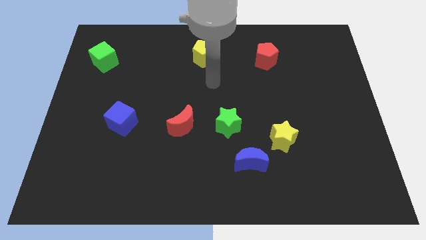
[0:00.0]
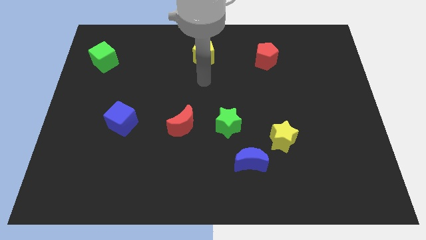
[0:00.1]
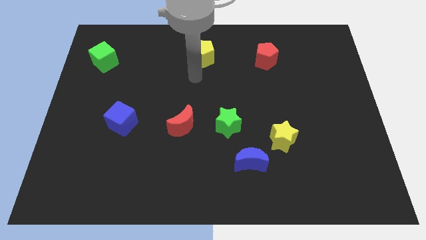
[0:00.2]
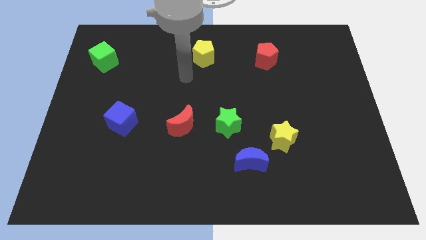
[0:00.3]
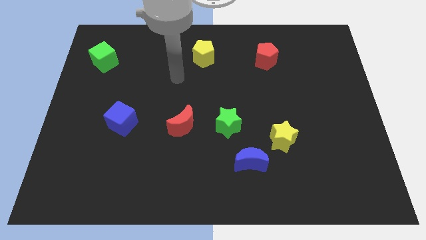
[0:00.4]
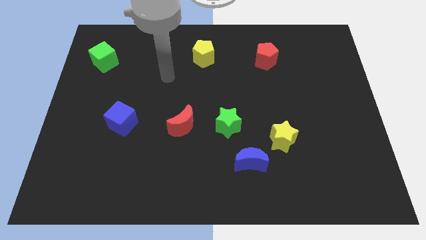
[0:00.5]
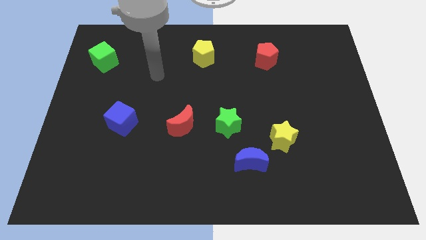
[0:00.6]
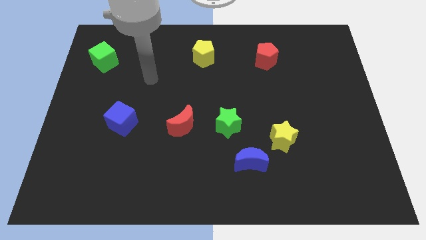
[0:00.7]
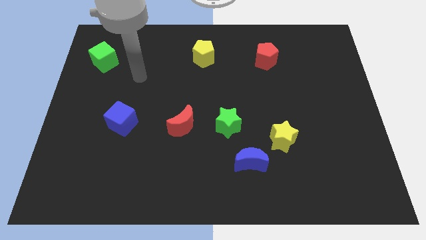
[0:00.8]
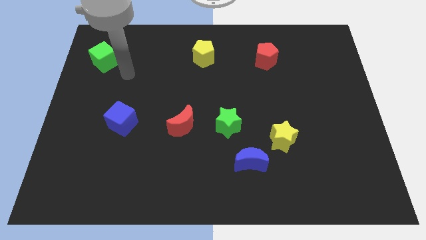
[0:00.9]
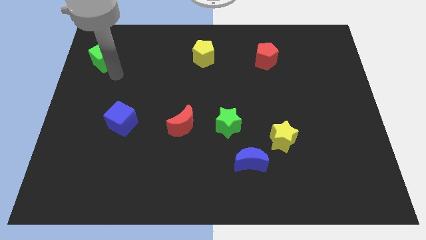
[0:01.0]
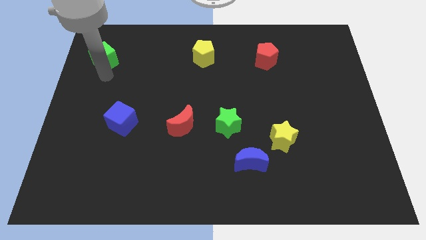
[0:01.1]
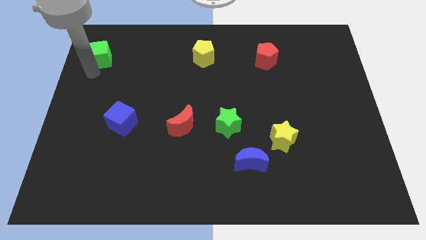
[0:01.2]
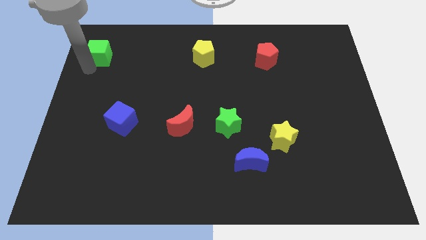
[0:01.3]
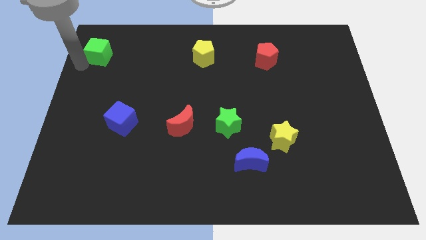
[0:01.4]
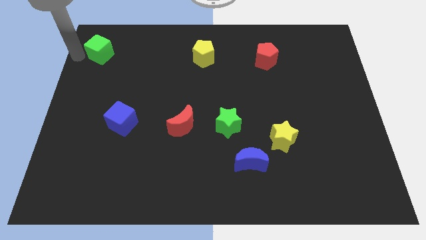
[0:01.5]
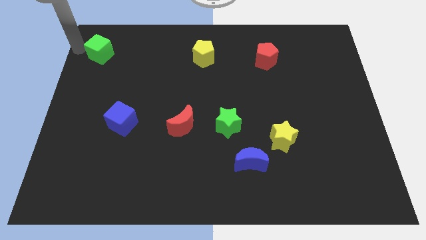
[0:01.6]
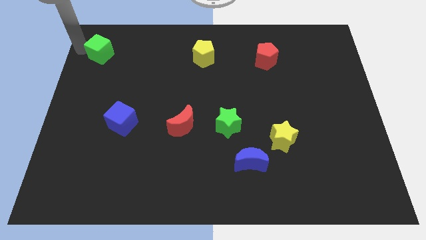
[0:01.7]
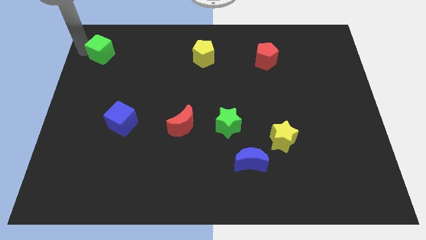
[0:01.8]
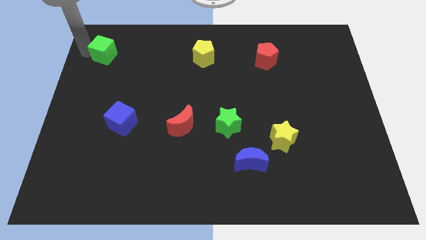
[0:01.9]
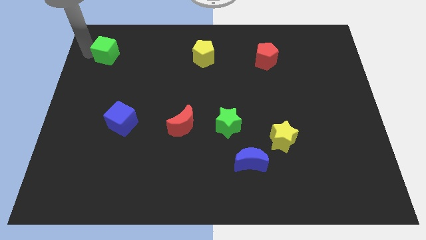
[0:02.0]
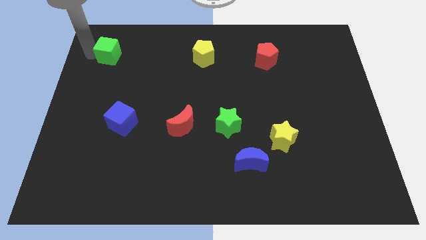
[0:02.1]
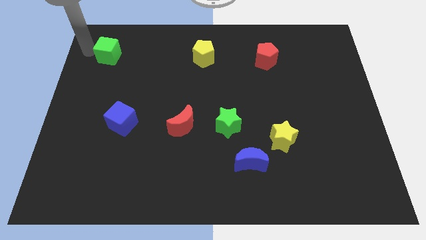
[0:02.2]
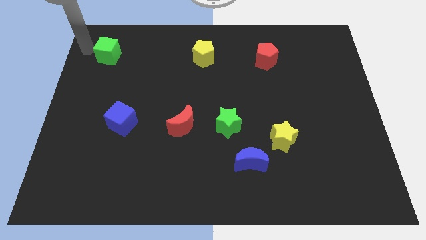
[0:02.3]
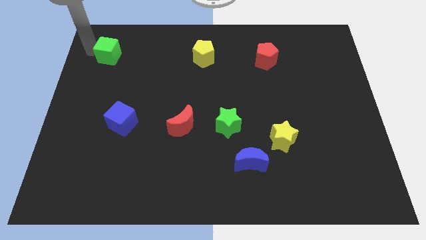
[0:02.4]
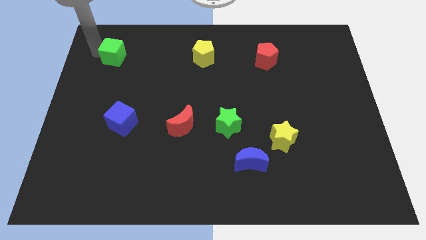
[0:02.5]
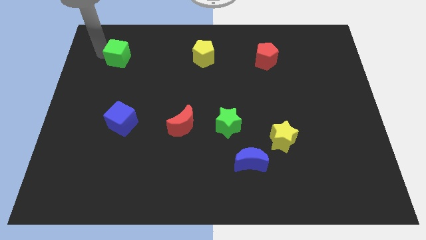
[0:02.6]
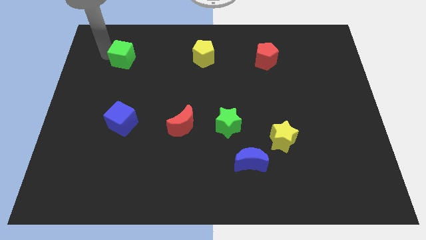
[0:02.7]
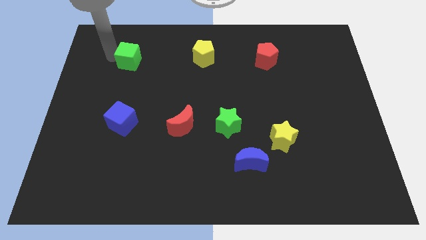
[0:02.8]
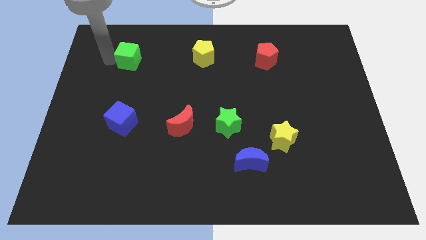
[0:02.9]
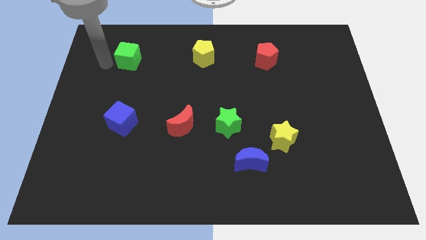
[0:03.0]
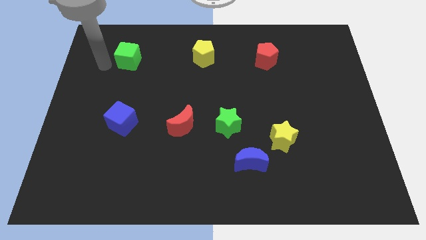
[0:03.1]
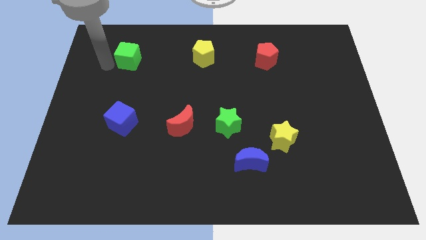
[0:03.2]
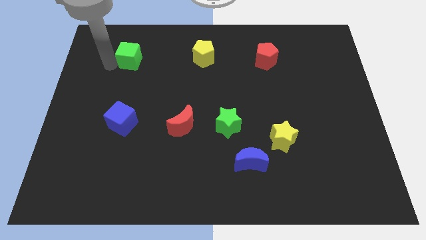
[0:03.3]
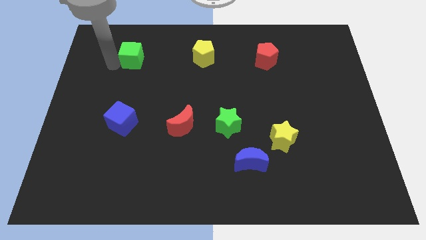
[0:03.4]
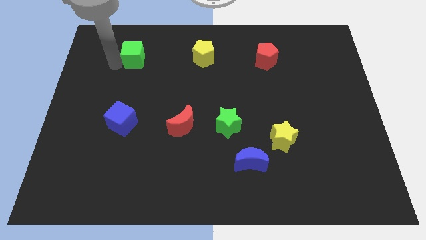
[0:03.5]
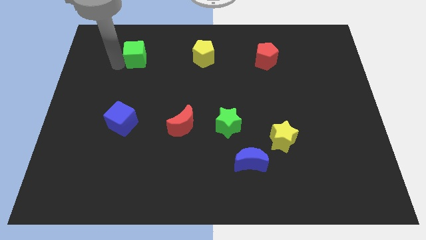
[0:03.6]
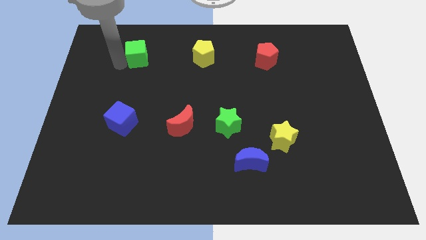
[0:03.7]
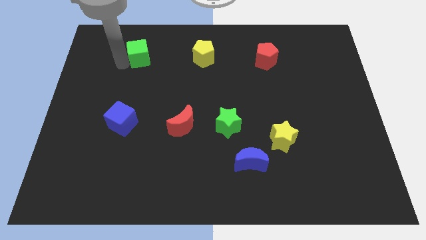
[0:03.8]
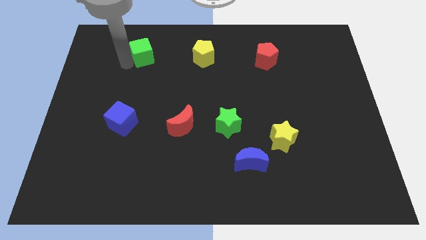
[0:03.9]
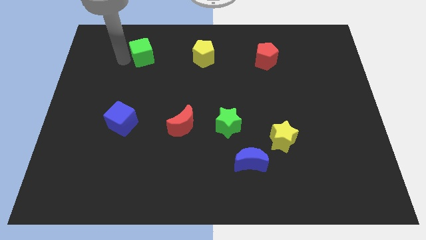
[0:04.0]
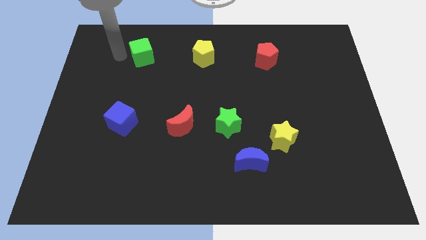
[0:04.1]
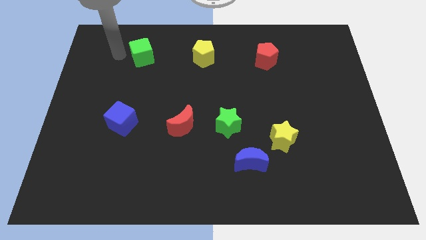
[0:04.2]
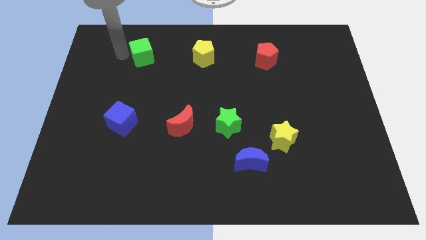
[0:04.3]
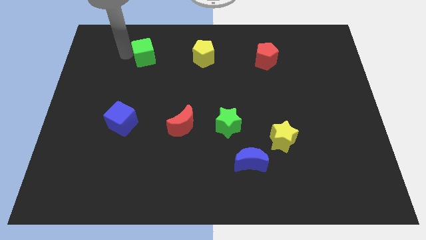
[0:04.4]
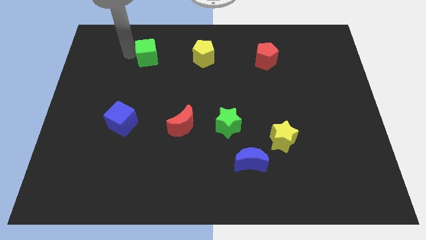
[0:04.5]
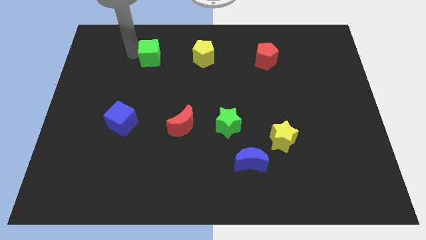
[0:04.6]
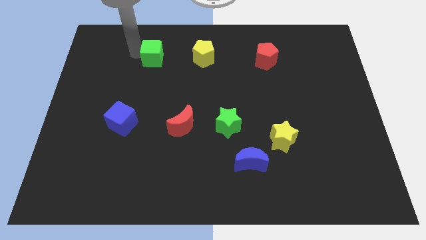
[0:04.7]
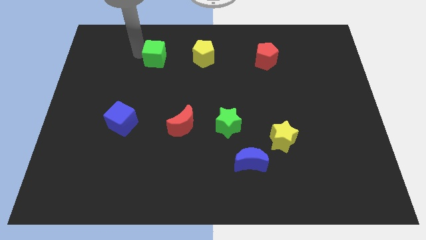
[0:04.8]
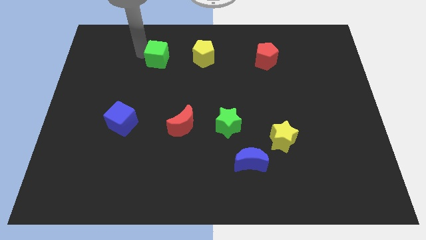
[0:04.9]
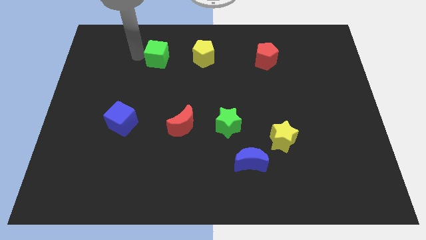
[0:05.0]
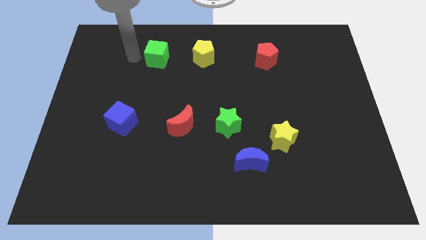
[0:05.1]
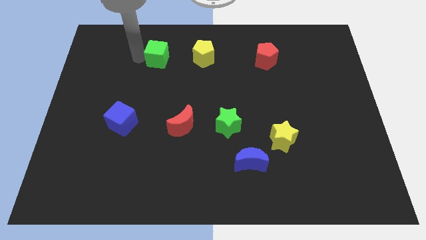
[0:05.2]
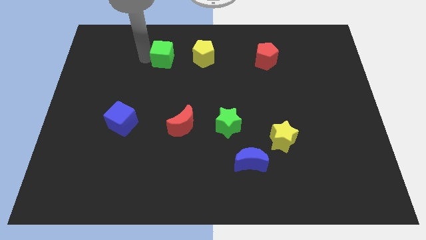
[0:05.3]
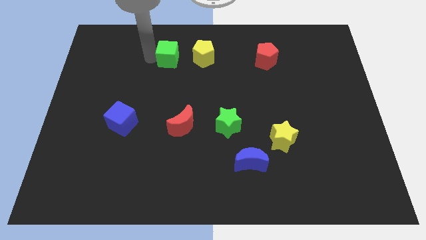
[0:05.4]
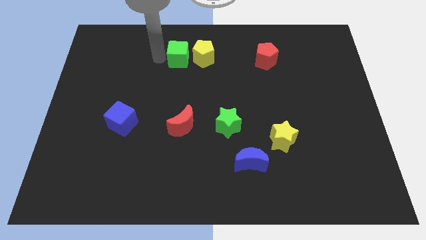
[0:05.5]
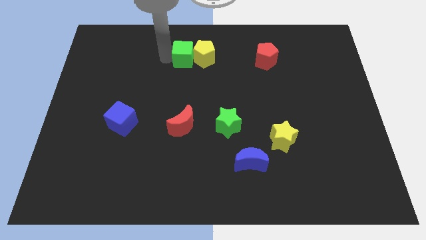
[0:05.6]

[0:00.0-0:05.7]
put the green cube to the yellow pentagon

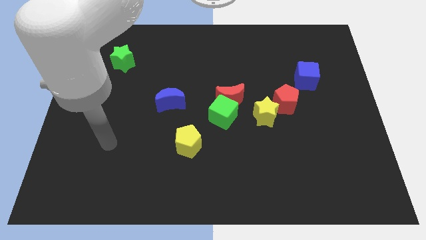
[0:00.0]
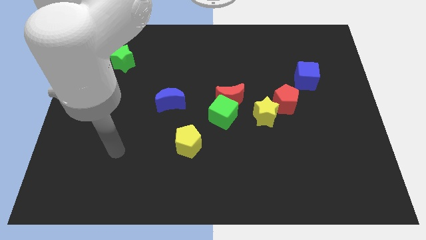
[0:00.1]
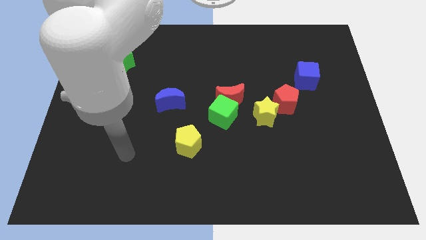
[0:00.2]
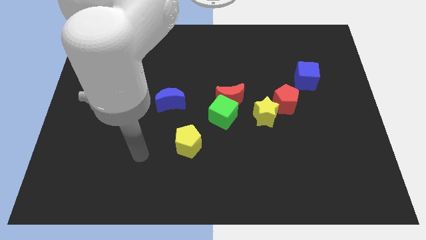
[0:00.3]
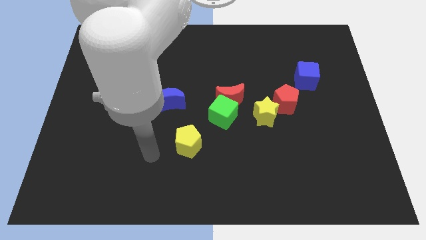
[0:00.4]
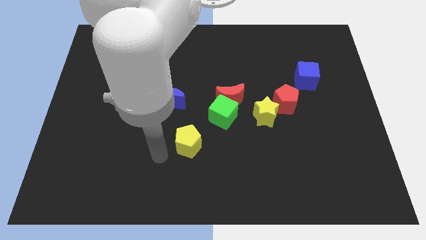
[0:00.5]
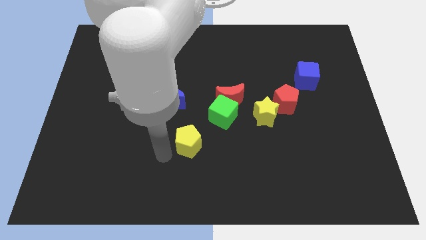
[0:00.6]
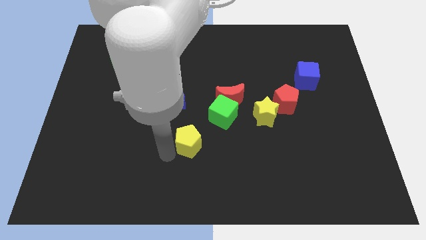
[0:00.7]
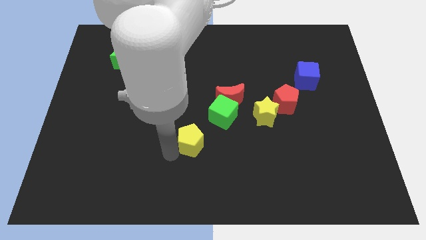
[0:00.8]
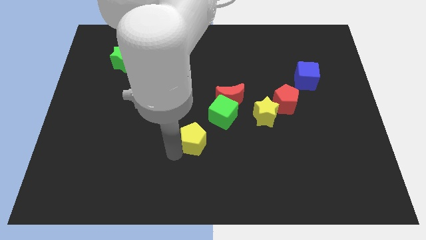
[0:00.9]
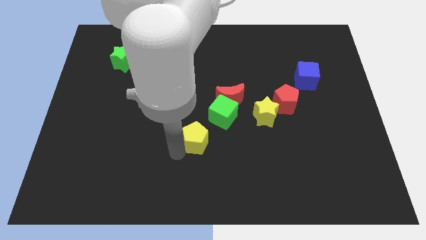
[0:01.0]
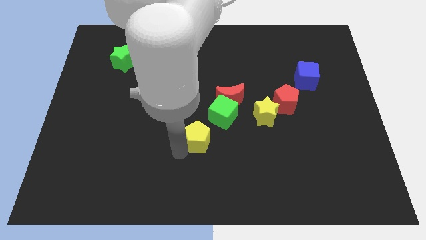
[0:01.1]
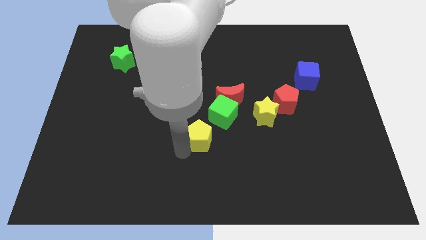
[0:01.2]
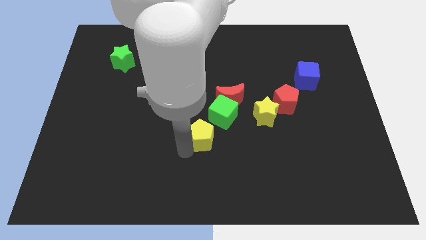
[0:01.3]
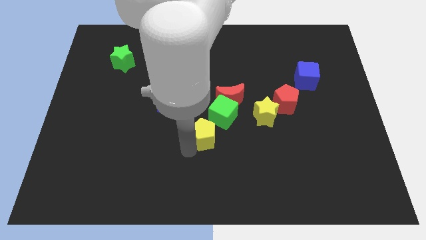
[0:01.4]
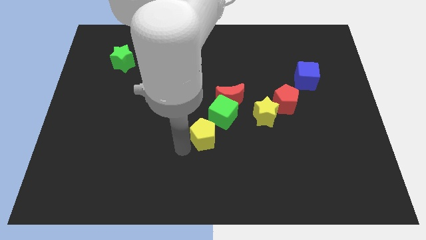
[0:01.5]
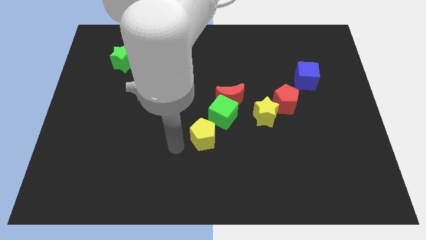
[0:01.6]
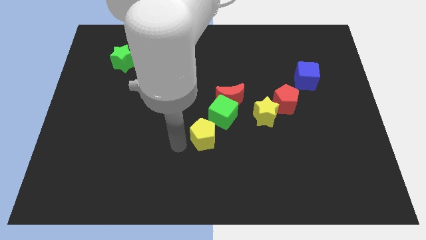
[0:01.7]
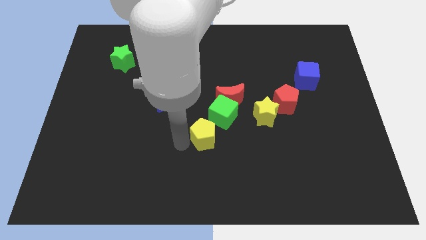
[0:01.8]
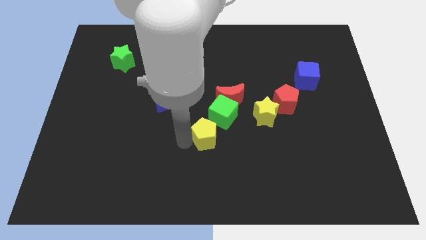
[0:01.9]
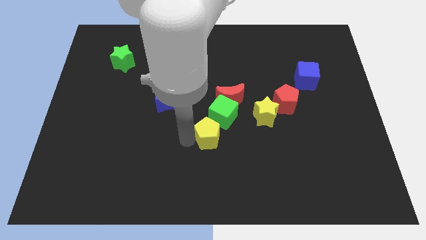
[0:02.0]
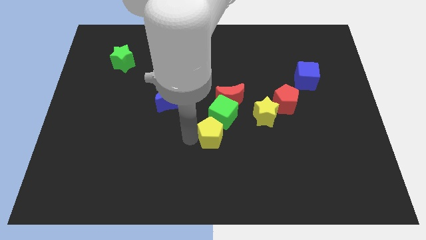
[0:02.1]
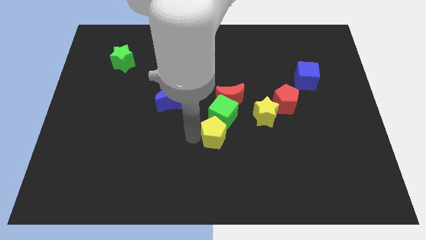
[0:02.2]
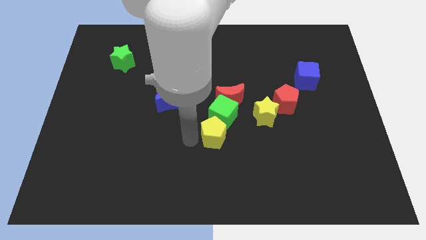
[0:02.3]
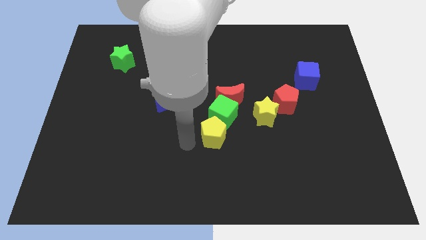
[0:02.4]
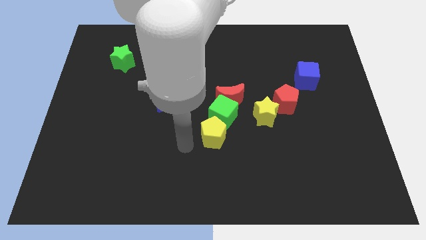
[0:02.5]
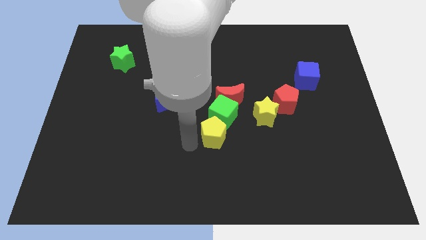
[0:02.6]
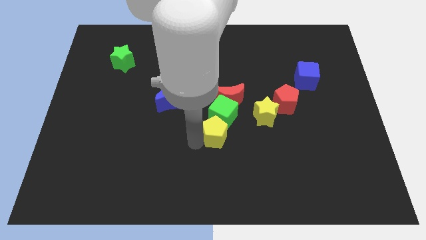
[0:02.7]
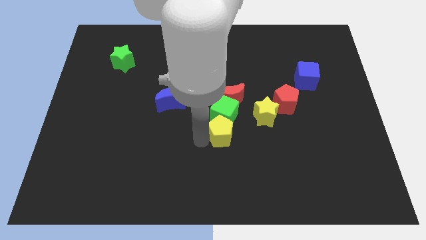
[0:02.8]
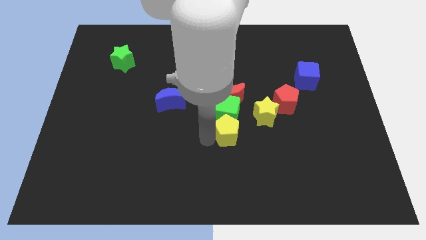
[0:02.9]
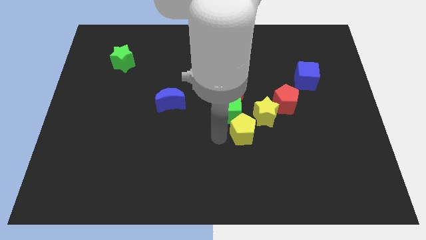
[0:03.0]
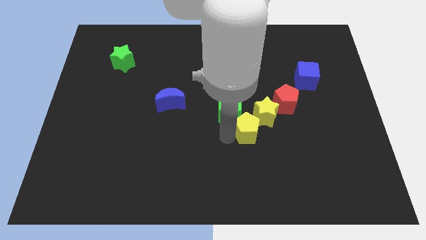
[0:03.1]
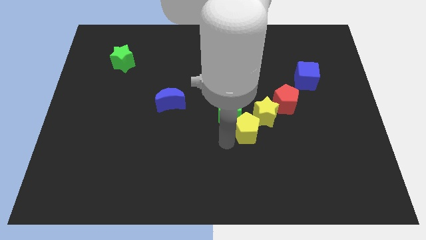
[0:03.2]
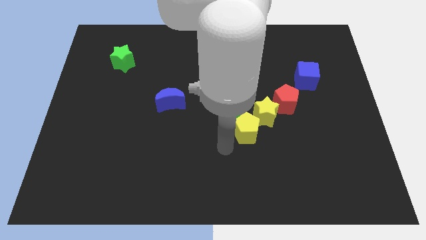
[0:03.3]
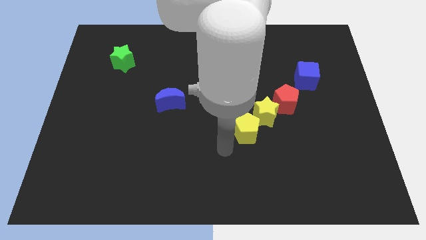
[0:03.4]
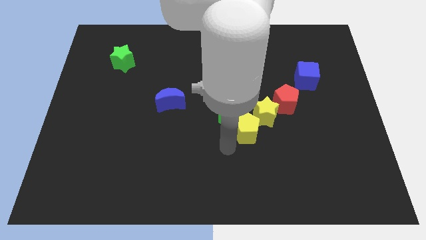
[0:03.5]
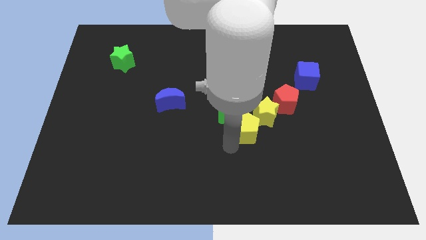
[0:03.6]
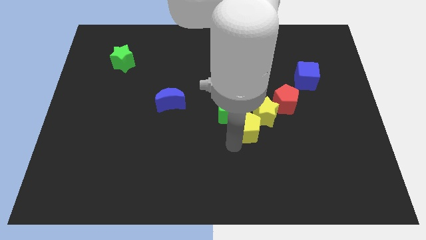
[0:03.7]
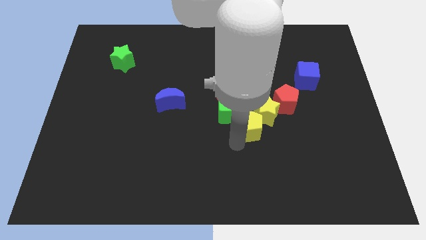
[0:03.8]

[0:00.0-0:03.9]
put the yellow pentagon next to the yellow star
